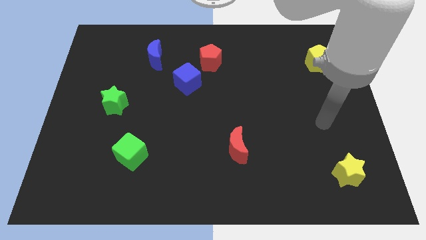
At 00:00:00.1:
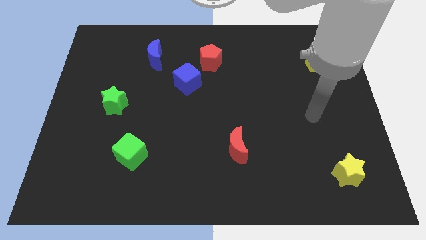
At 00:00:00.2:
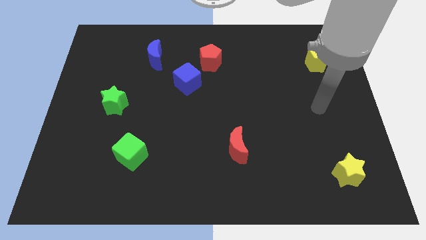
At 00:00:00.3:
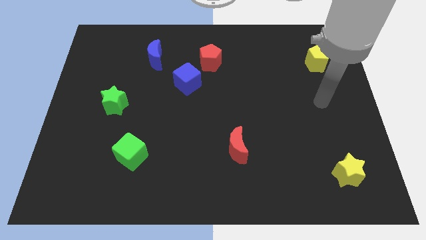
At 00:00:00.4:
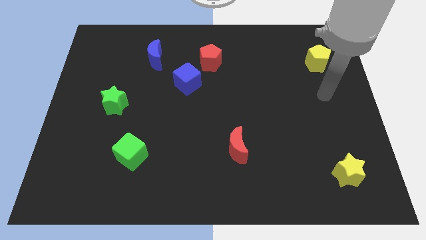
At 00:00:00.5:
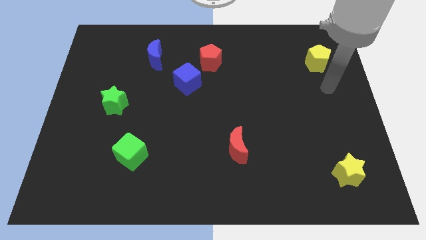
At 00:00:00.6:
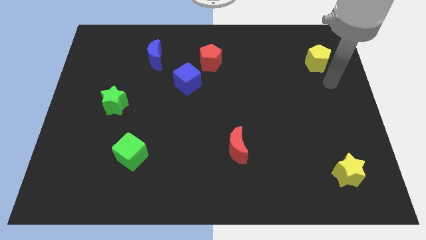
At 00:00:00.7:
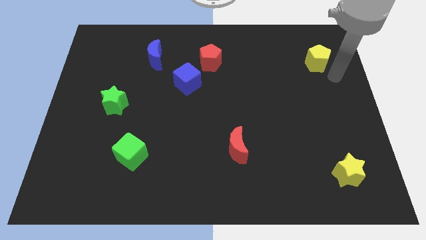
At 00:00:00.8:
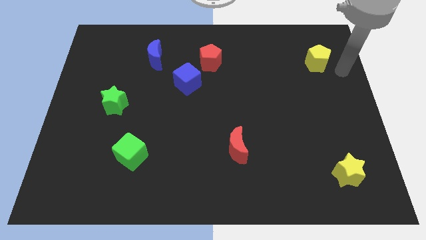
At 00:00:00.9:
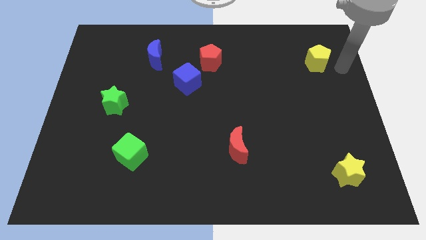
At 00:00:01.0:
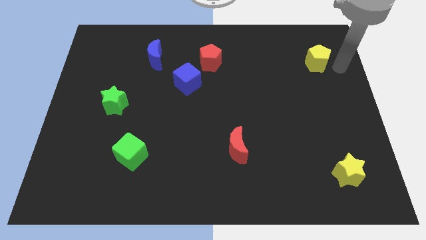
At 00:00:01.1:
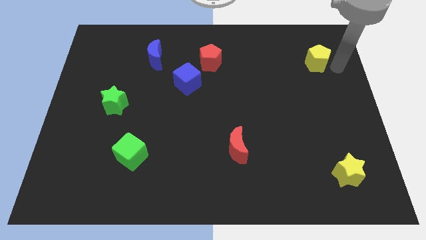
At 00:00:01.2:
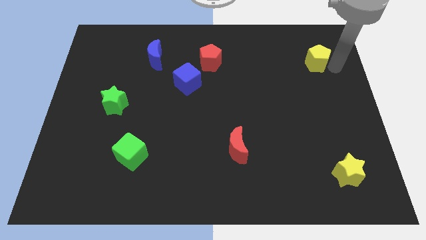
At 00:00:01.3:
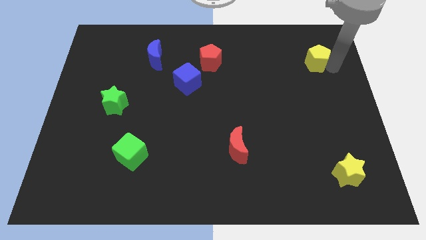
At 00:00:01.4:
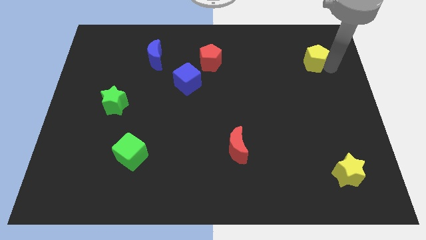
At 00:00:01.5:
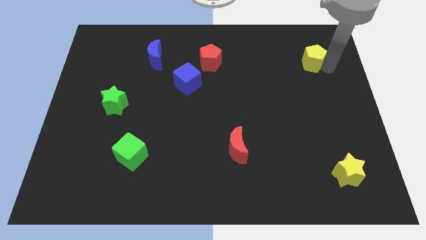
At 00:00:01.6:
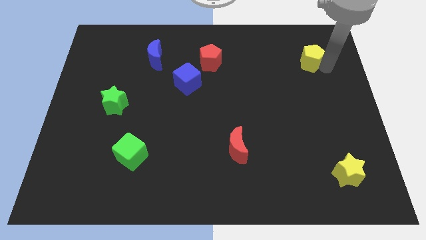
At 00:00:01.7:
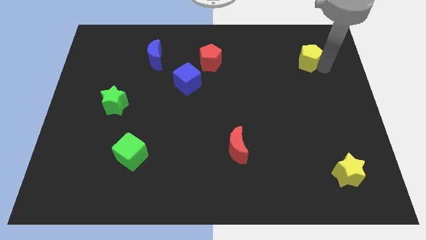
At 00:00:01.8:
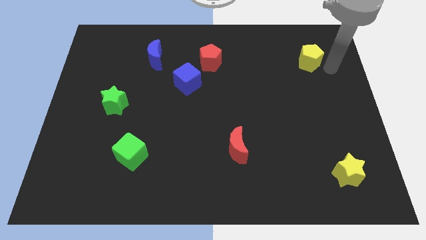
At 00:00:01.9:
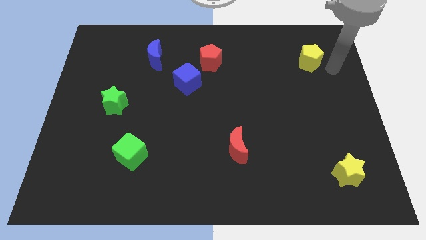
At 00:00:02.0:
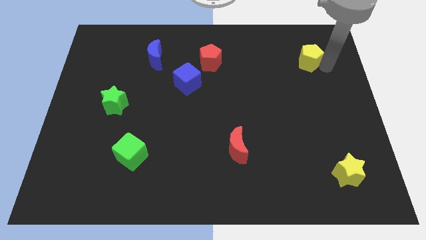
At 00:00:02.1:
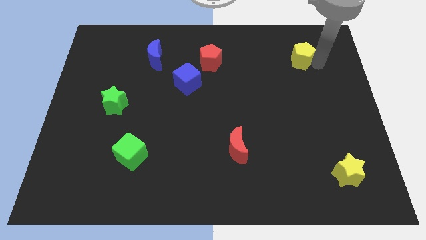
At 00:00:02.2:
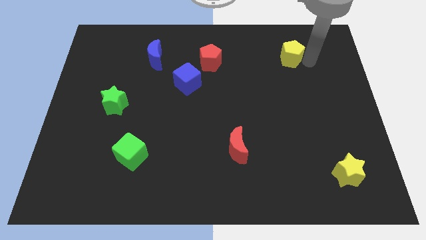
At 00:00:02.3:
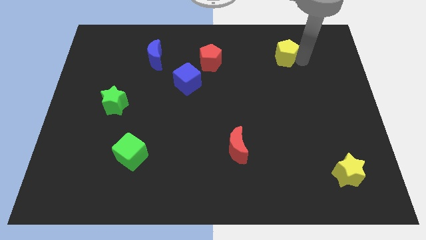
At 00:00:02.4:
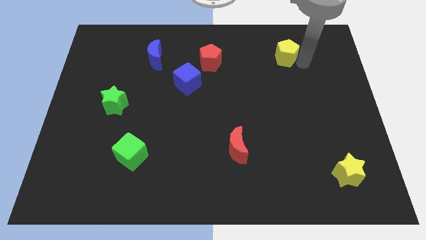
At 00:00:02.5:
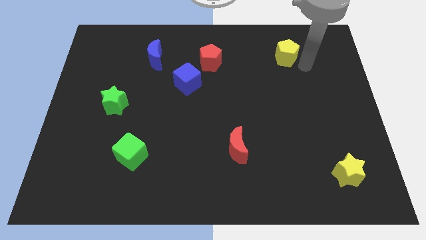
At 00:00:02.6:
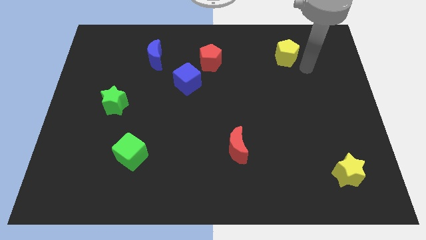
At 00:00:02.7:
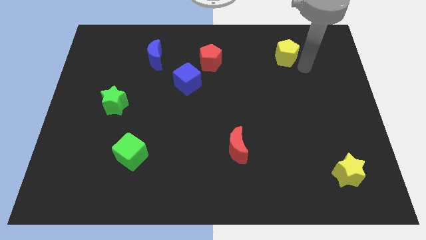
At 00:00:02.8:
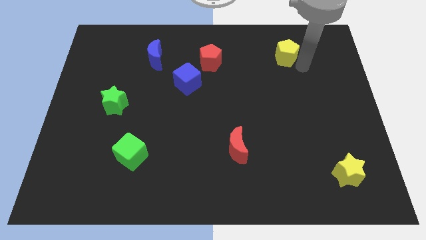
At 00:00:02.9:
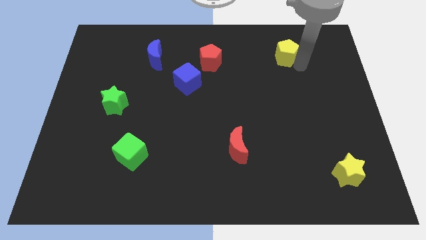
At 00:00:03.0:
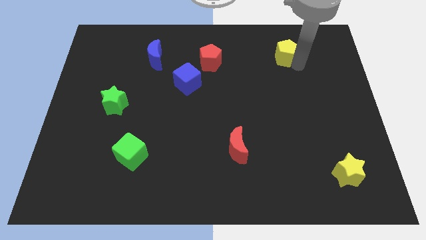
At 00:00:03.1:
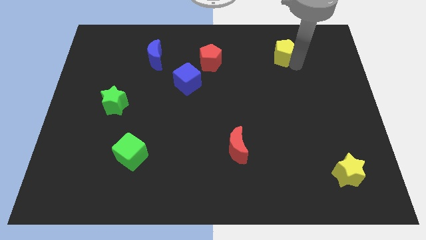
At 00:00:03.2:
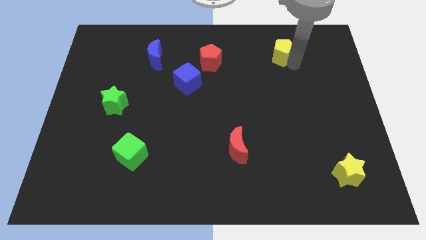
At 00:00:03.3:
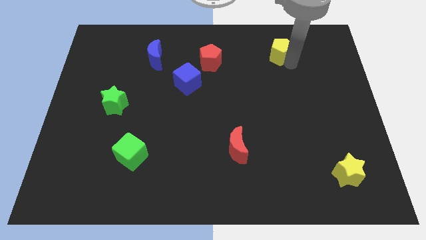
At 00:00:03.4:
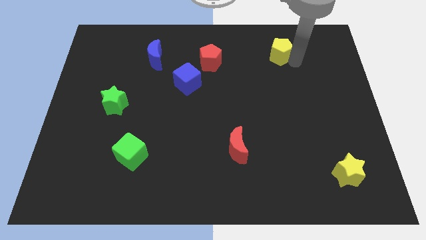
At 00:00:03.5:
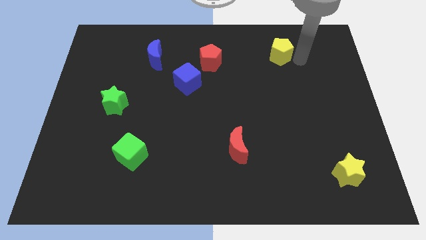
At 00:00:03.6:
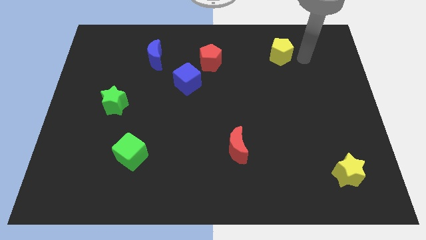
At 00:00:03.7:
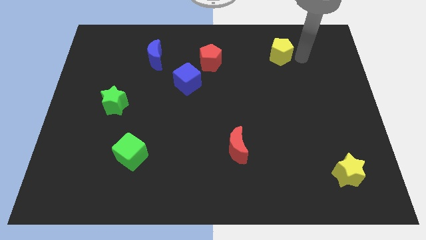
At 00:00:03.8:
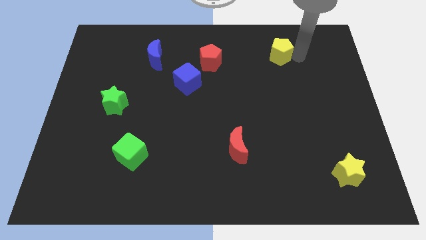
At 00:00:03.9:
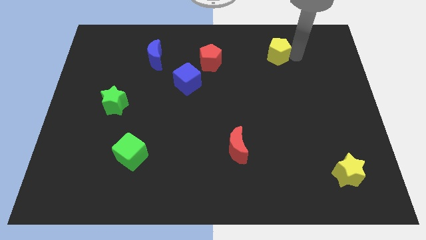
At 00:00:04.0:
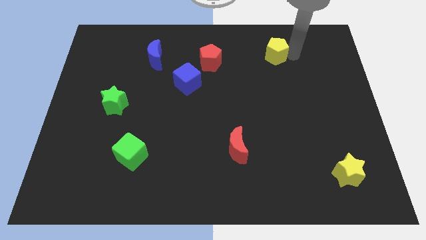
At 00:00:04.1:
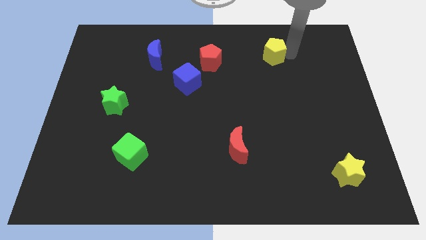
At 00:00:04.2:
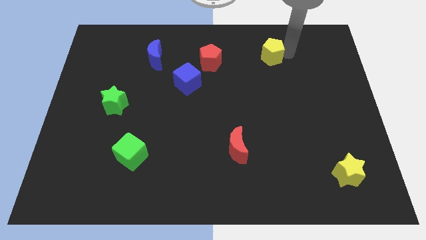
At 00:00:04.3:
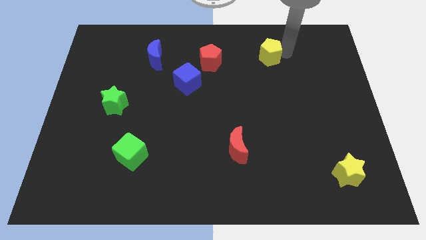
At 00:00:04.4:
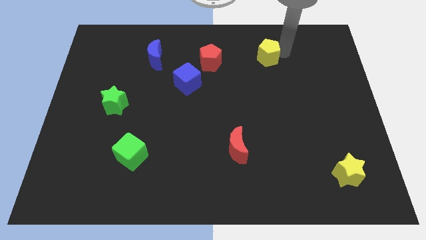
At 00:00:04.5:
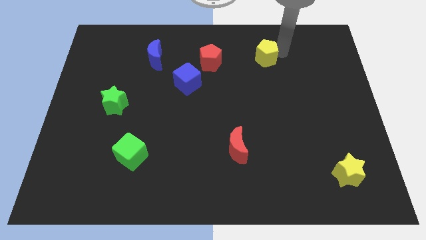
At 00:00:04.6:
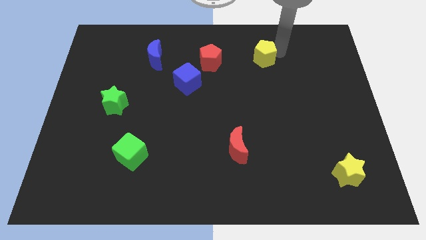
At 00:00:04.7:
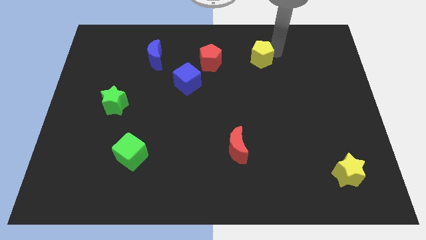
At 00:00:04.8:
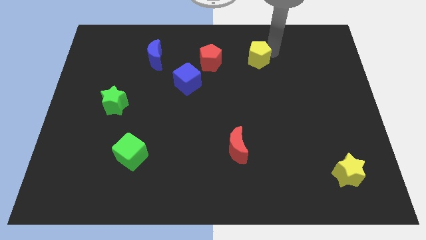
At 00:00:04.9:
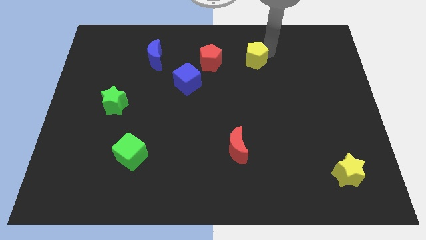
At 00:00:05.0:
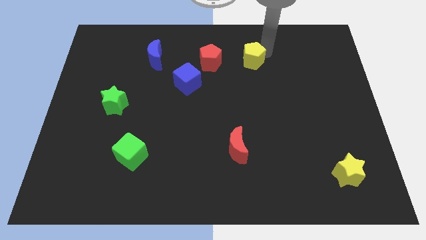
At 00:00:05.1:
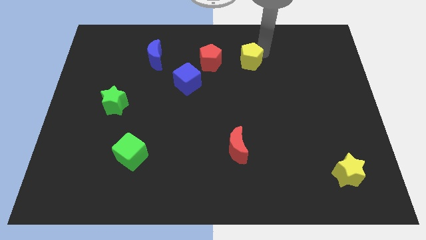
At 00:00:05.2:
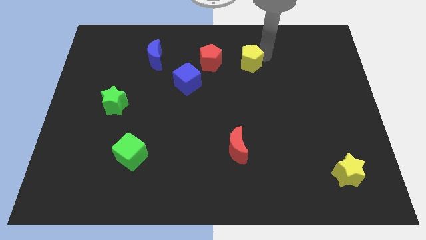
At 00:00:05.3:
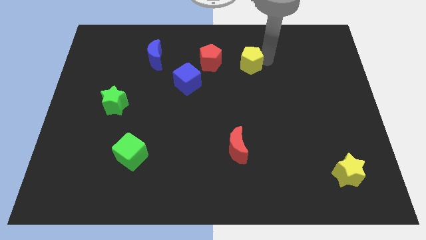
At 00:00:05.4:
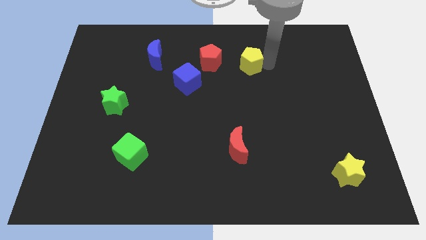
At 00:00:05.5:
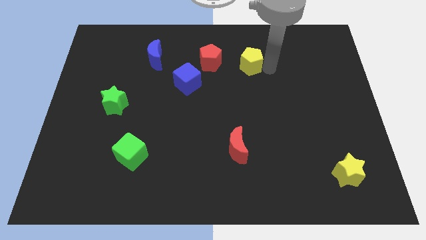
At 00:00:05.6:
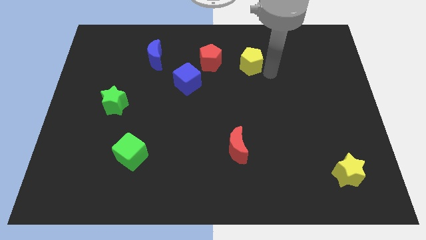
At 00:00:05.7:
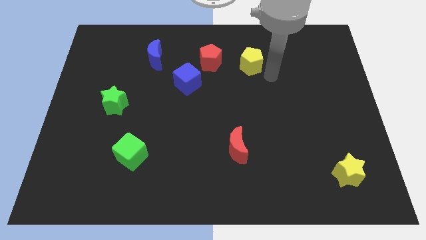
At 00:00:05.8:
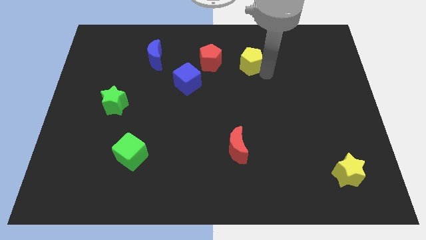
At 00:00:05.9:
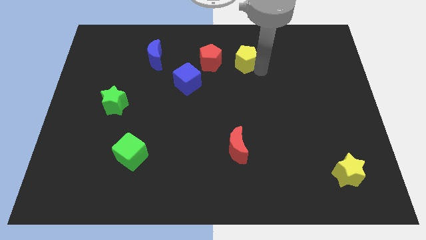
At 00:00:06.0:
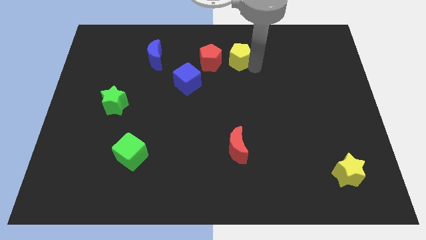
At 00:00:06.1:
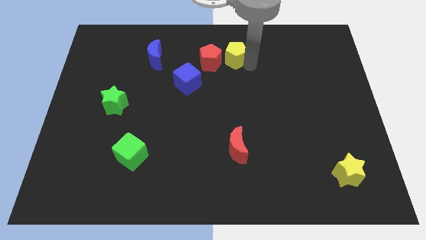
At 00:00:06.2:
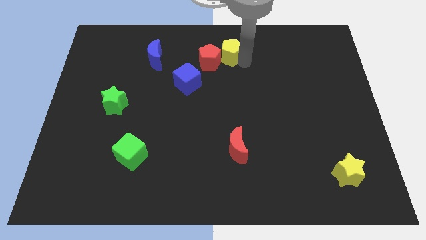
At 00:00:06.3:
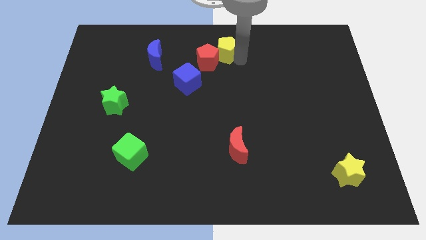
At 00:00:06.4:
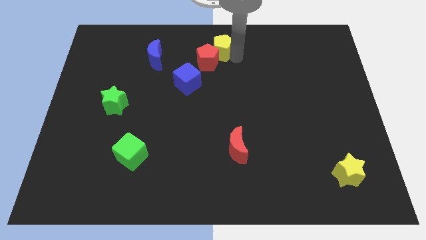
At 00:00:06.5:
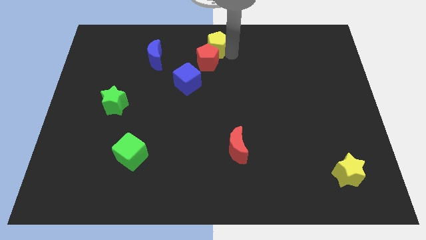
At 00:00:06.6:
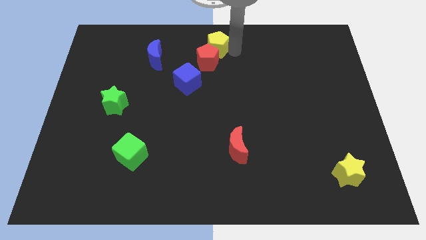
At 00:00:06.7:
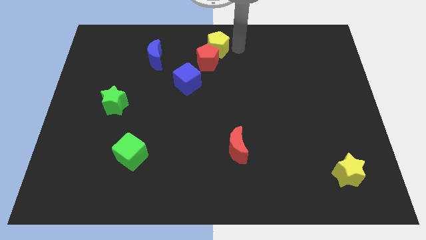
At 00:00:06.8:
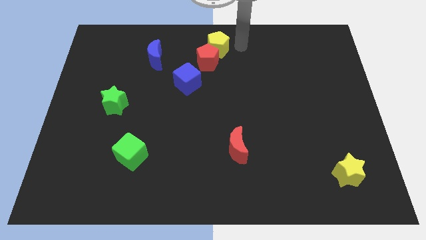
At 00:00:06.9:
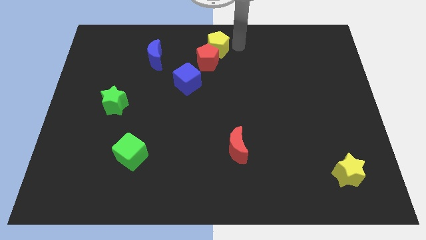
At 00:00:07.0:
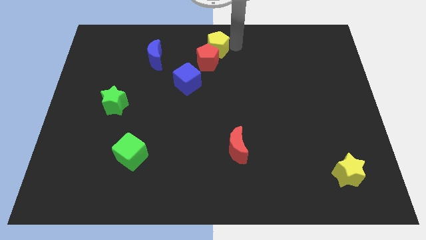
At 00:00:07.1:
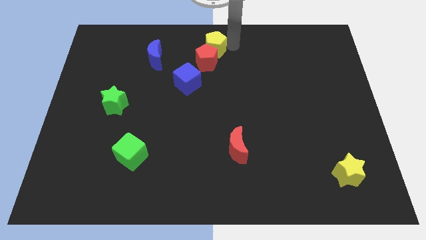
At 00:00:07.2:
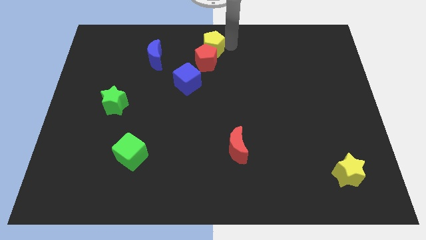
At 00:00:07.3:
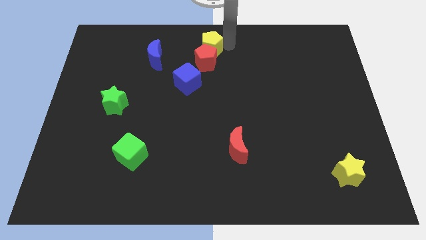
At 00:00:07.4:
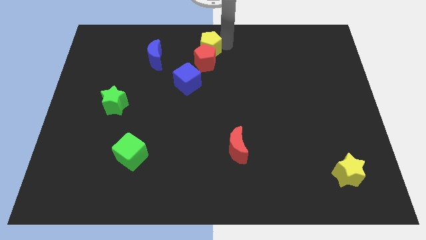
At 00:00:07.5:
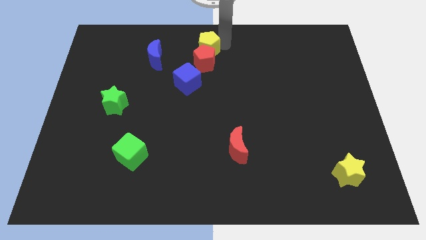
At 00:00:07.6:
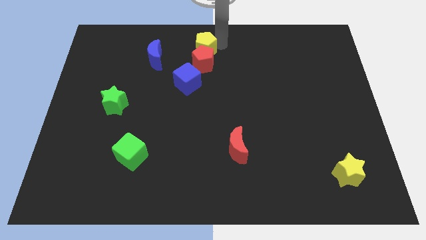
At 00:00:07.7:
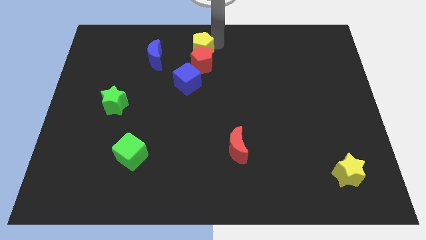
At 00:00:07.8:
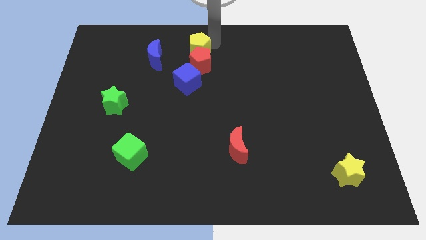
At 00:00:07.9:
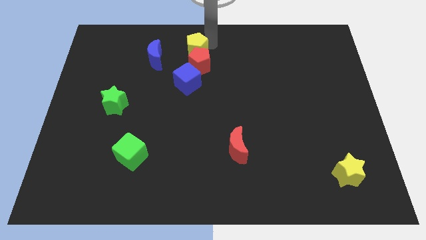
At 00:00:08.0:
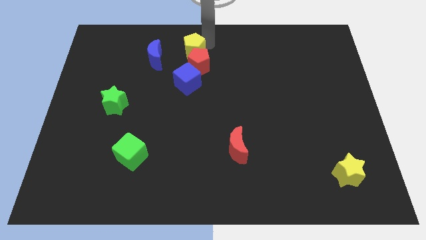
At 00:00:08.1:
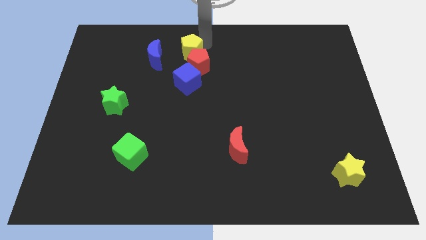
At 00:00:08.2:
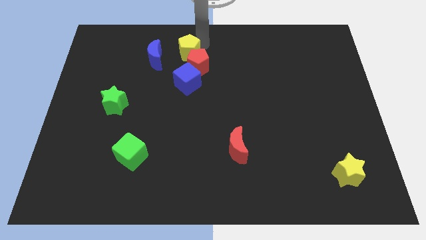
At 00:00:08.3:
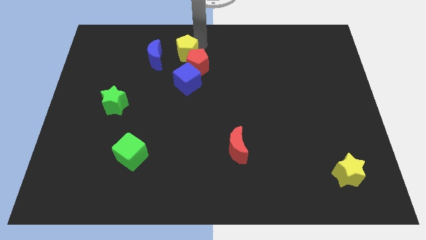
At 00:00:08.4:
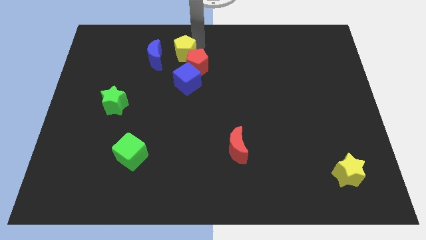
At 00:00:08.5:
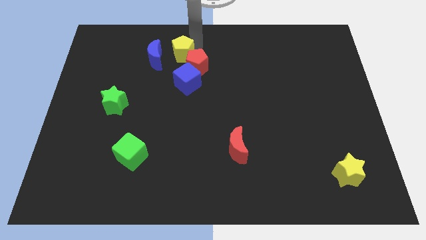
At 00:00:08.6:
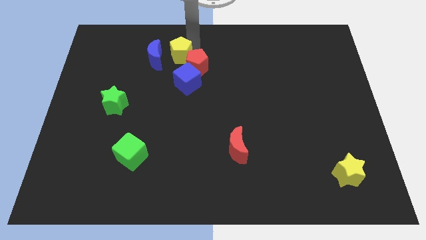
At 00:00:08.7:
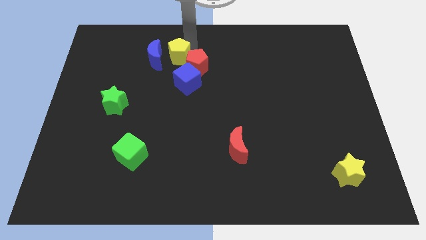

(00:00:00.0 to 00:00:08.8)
put the yellow pentagon close to the blue moon
